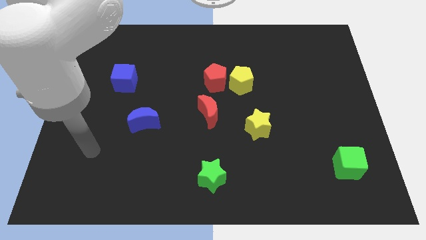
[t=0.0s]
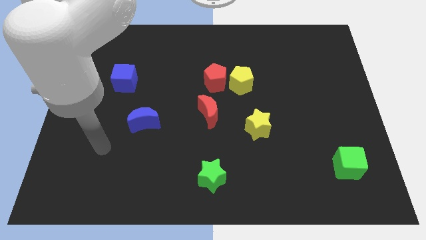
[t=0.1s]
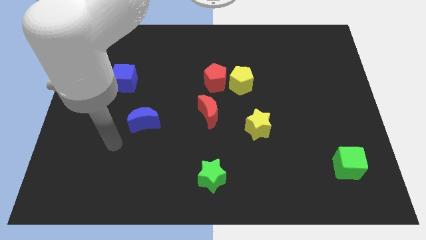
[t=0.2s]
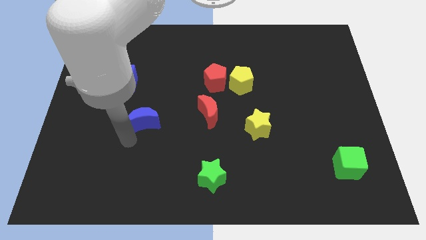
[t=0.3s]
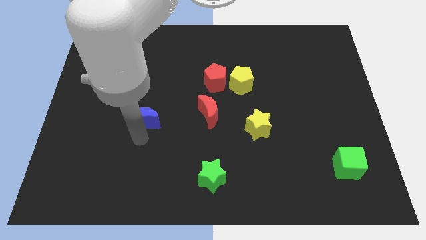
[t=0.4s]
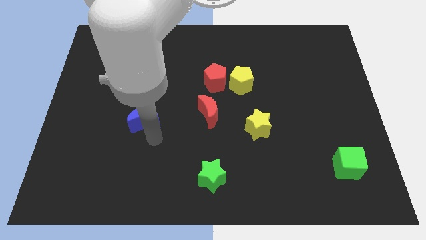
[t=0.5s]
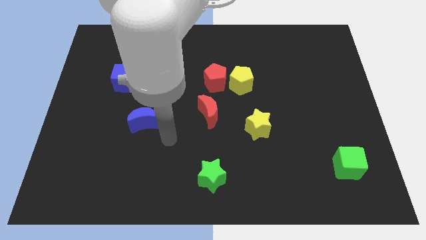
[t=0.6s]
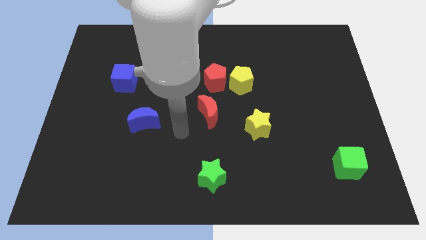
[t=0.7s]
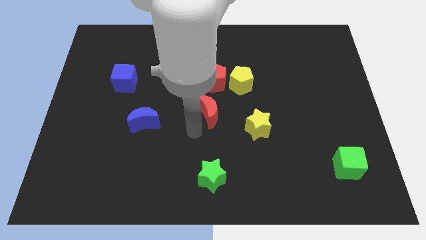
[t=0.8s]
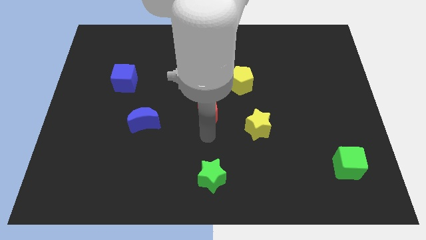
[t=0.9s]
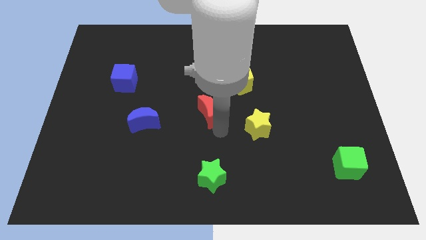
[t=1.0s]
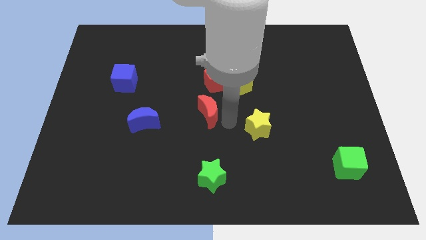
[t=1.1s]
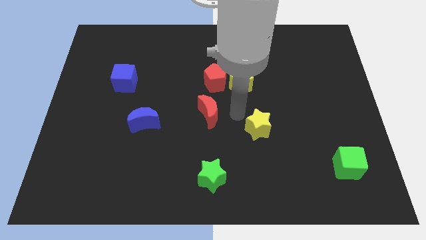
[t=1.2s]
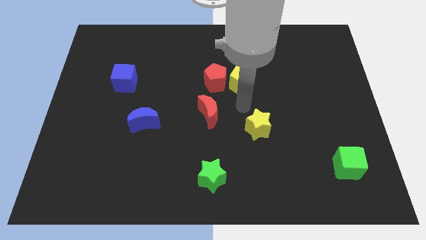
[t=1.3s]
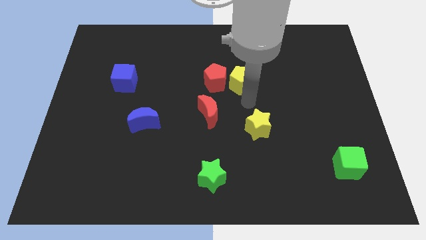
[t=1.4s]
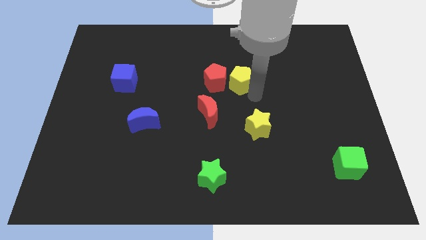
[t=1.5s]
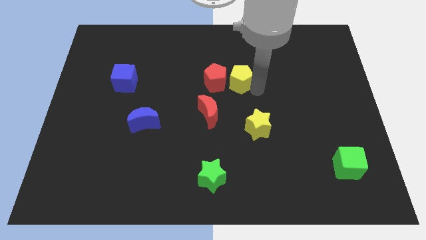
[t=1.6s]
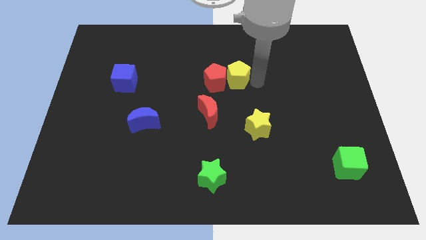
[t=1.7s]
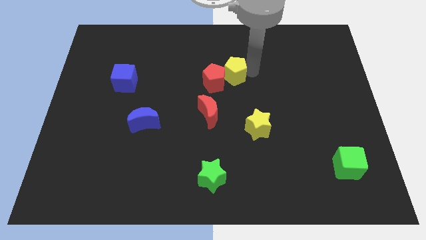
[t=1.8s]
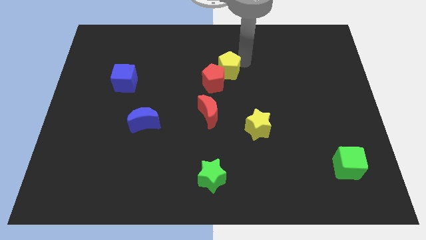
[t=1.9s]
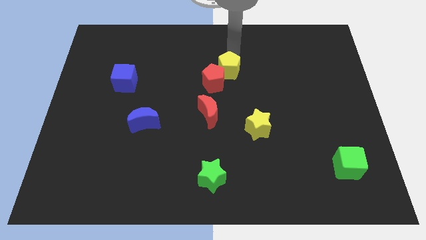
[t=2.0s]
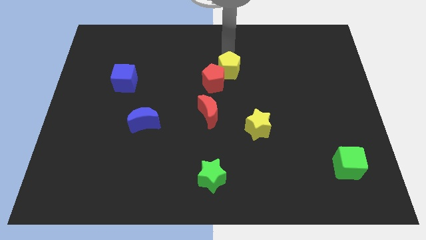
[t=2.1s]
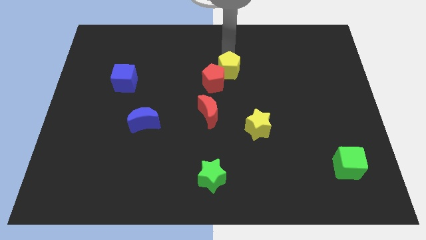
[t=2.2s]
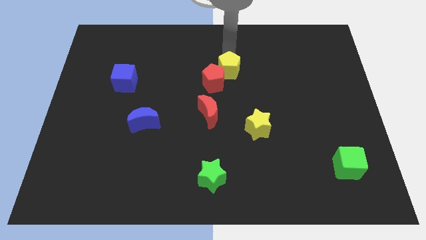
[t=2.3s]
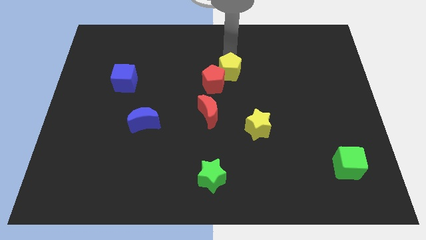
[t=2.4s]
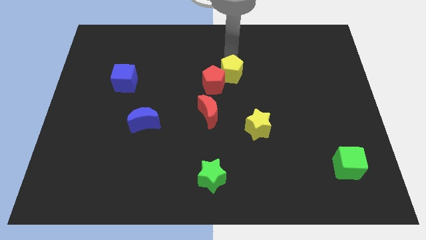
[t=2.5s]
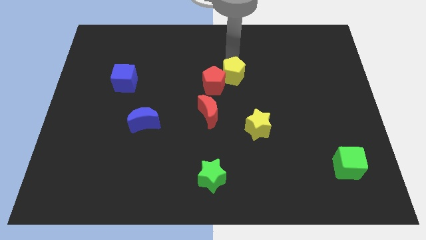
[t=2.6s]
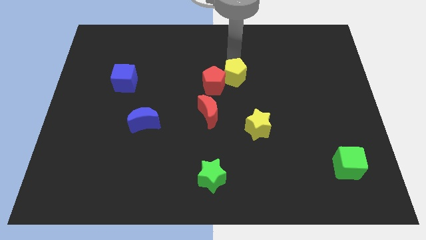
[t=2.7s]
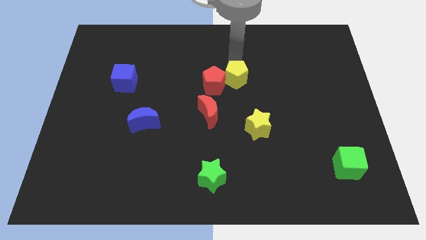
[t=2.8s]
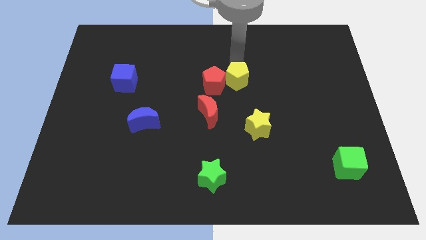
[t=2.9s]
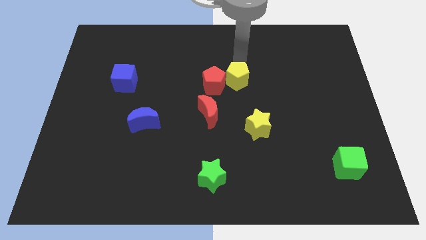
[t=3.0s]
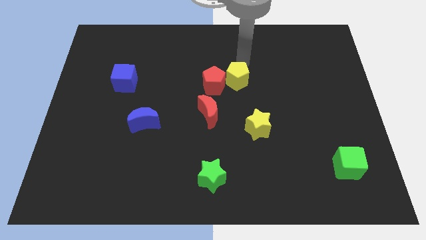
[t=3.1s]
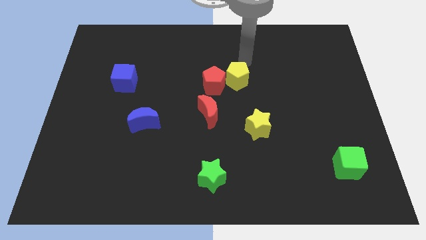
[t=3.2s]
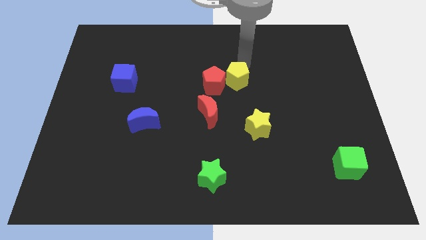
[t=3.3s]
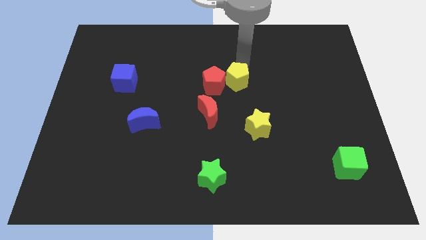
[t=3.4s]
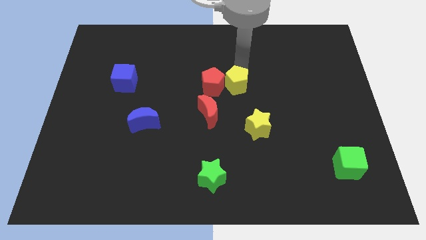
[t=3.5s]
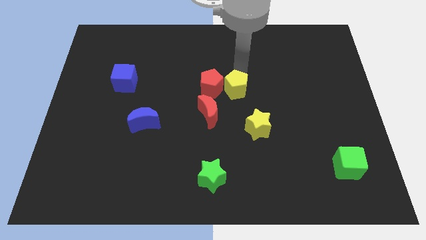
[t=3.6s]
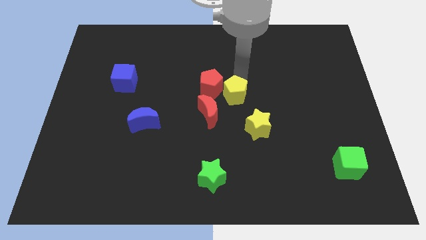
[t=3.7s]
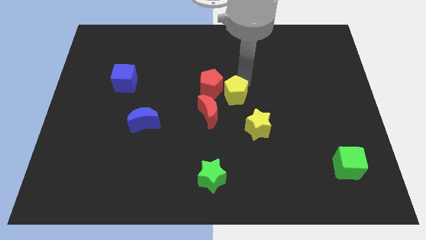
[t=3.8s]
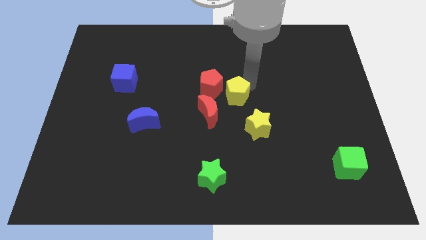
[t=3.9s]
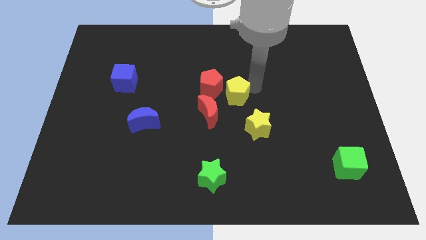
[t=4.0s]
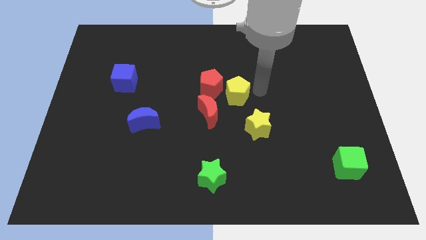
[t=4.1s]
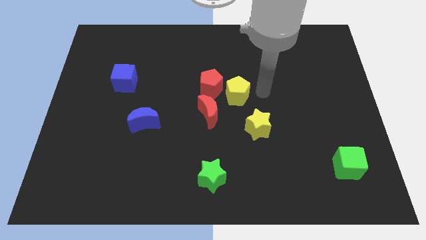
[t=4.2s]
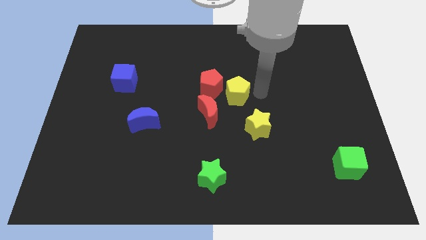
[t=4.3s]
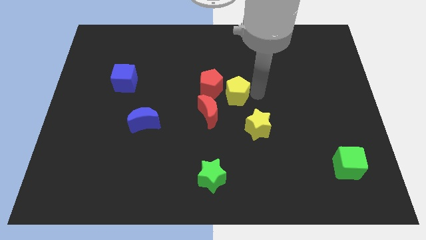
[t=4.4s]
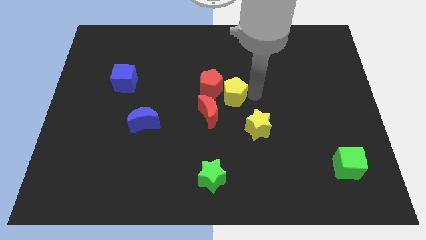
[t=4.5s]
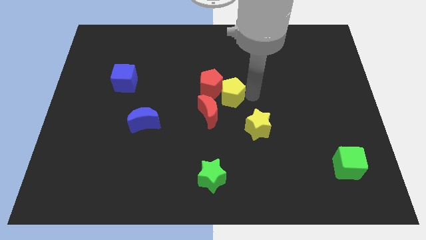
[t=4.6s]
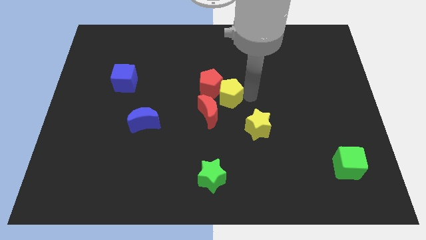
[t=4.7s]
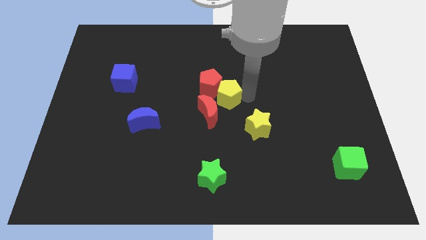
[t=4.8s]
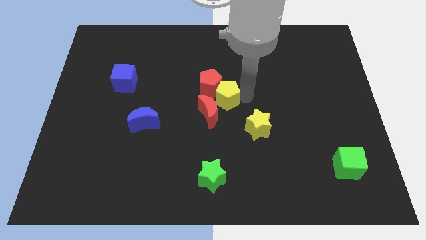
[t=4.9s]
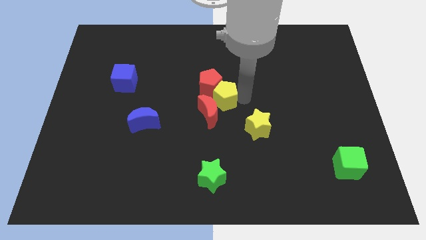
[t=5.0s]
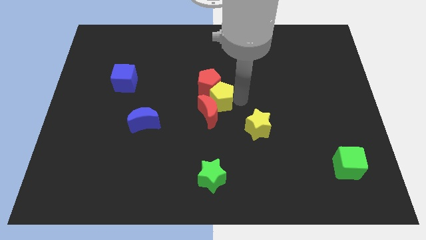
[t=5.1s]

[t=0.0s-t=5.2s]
move the yellow pentagon slightly diagonally down and left

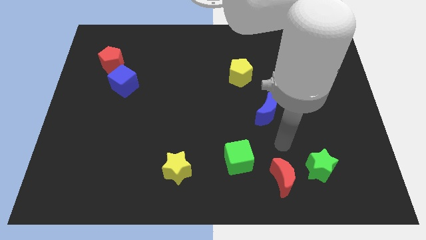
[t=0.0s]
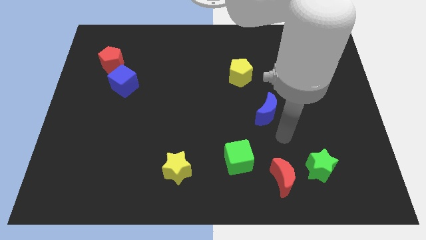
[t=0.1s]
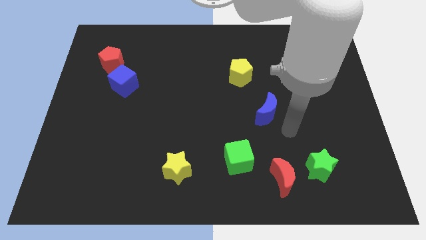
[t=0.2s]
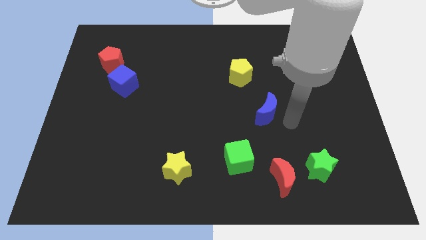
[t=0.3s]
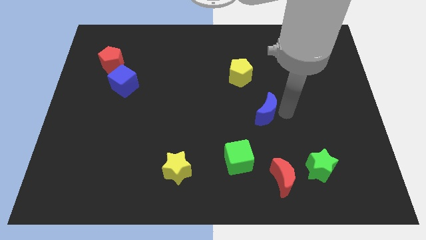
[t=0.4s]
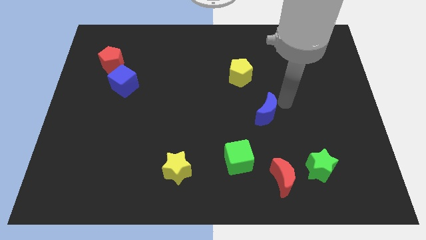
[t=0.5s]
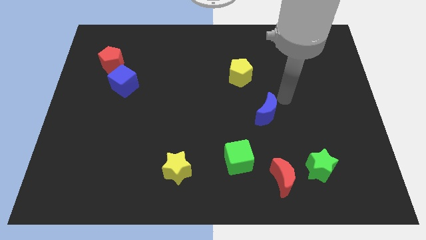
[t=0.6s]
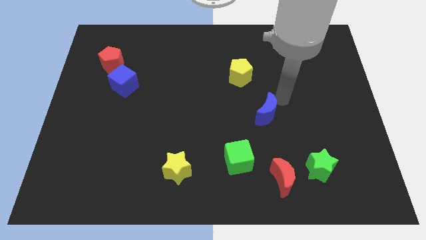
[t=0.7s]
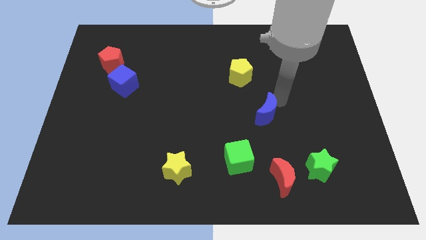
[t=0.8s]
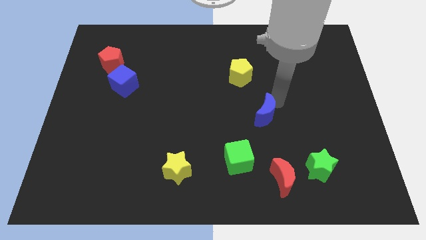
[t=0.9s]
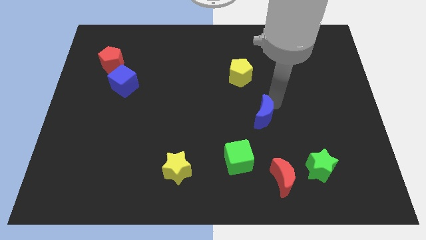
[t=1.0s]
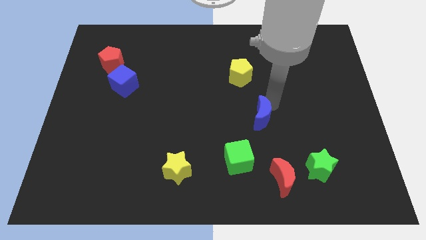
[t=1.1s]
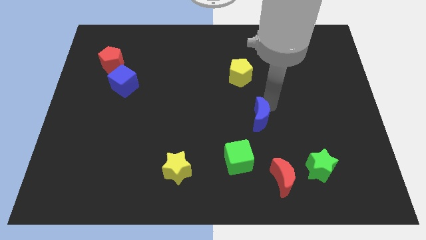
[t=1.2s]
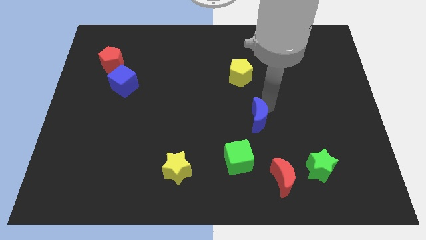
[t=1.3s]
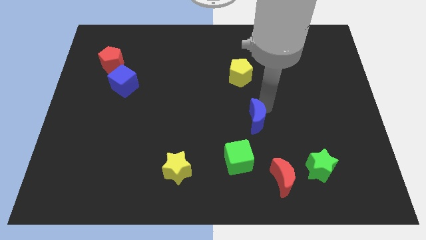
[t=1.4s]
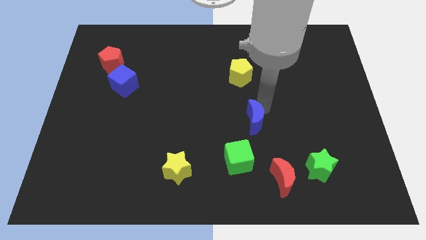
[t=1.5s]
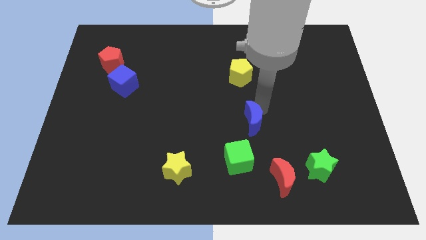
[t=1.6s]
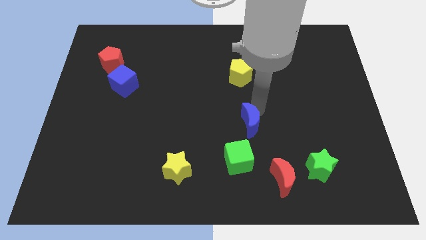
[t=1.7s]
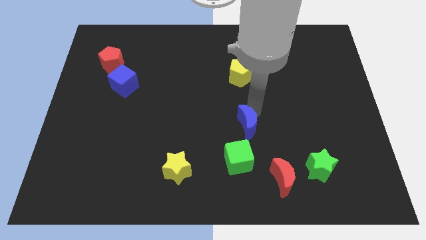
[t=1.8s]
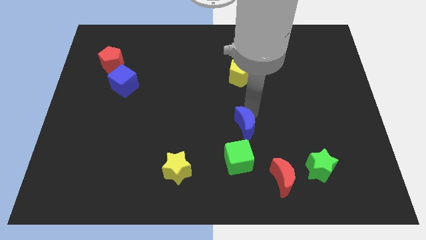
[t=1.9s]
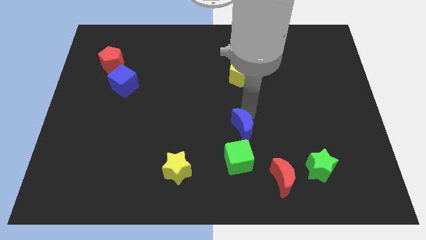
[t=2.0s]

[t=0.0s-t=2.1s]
slide the blue moon downwards and to the left diagonally somewhat

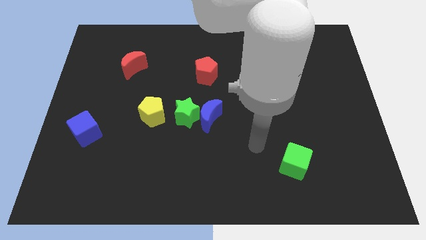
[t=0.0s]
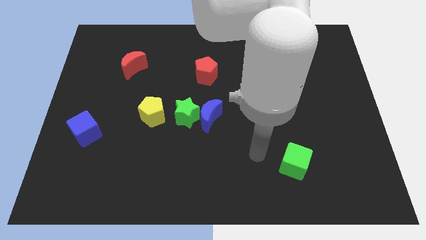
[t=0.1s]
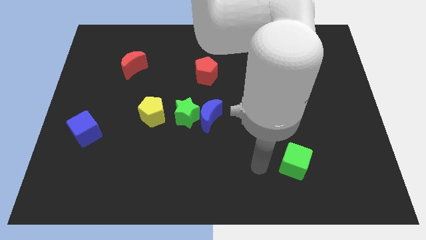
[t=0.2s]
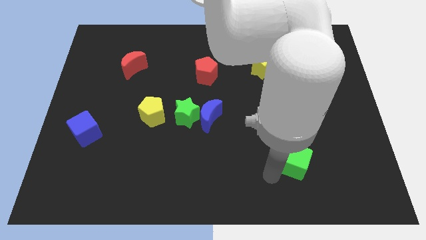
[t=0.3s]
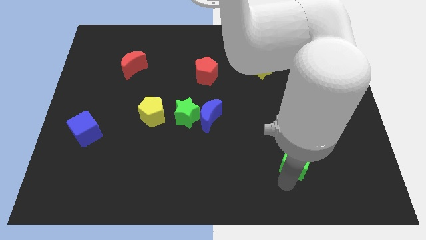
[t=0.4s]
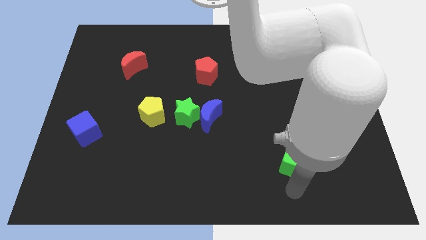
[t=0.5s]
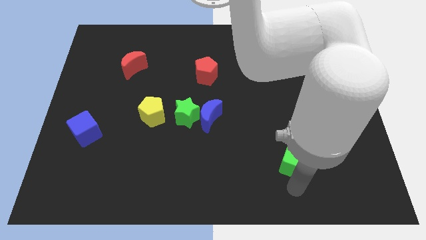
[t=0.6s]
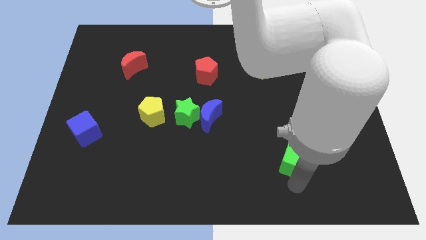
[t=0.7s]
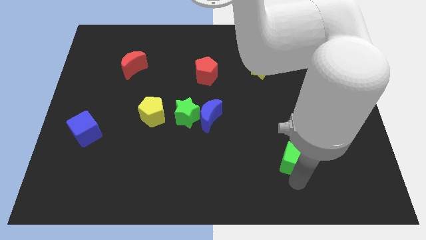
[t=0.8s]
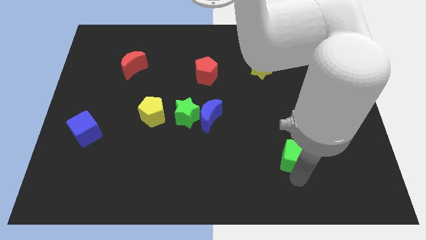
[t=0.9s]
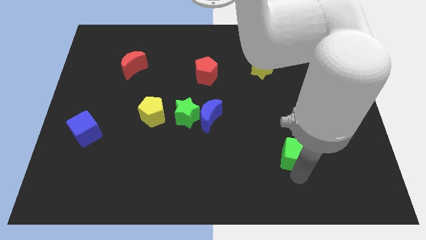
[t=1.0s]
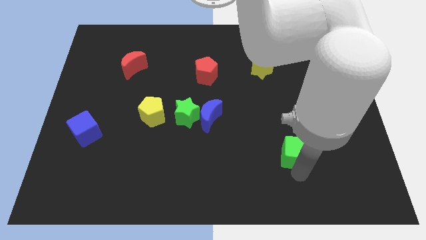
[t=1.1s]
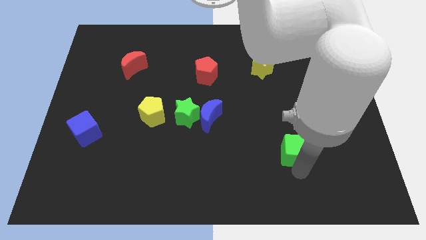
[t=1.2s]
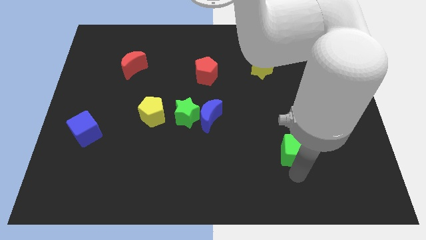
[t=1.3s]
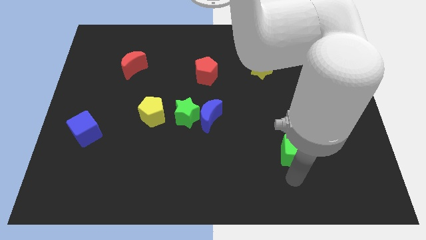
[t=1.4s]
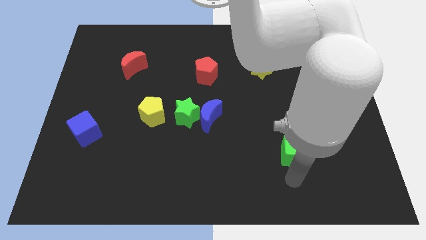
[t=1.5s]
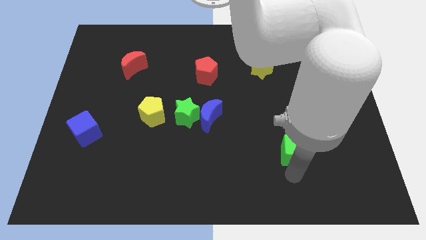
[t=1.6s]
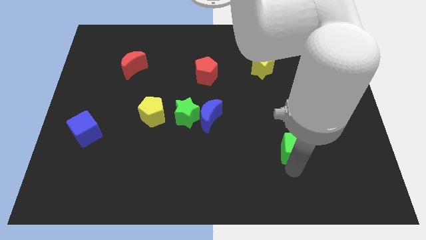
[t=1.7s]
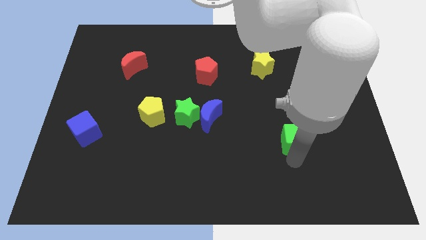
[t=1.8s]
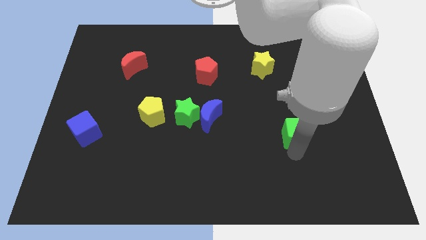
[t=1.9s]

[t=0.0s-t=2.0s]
slide the green cube up a bit
